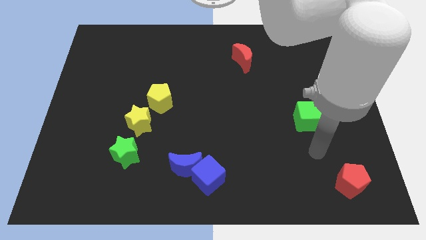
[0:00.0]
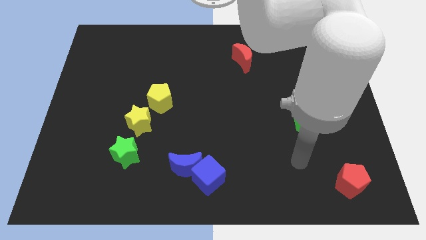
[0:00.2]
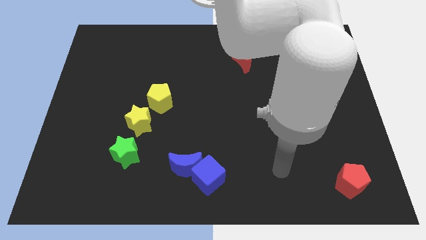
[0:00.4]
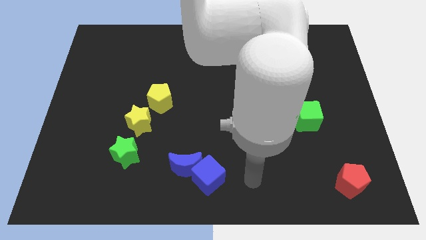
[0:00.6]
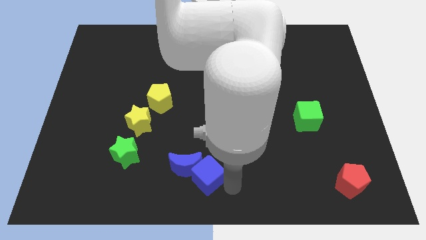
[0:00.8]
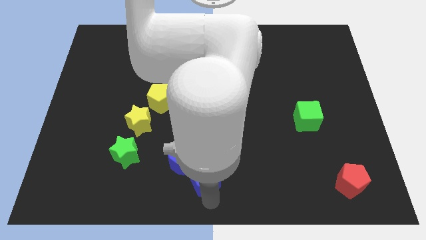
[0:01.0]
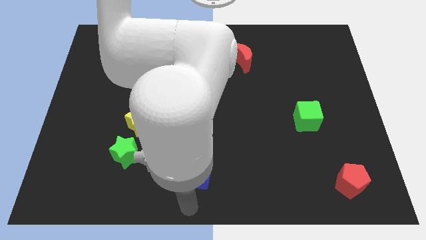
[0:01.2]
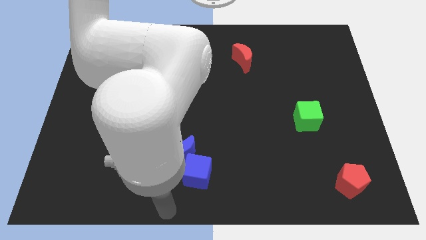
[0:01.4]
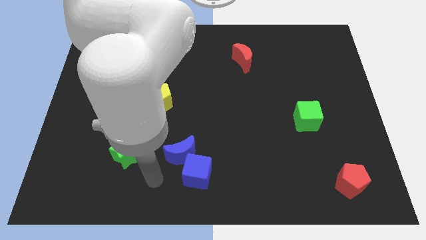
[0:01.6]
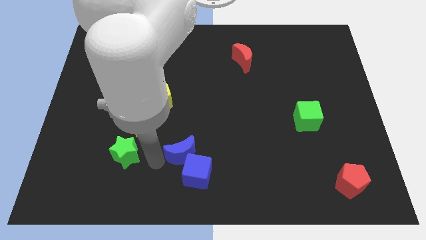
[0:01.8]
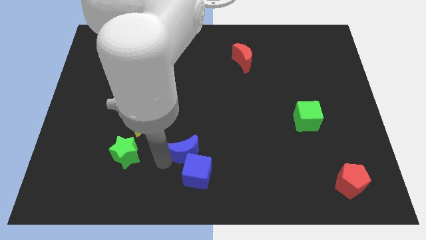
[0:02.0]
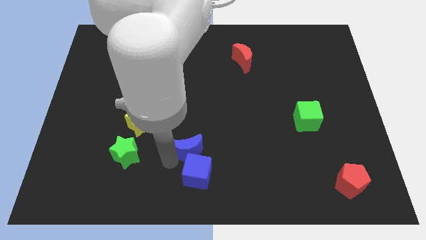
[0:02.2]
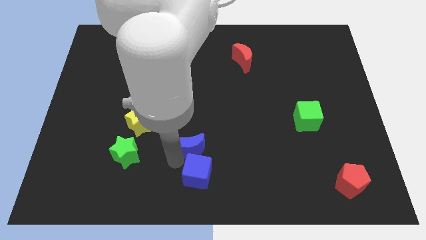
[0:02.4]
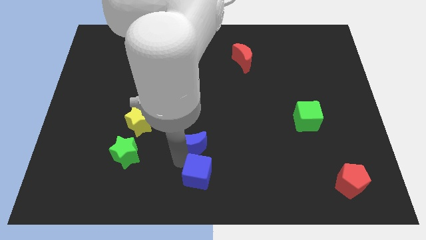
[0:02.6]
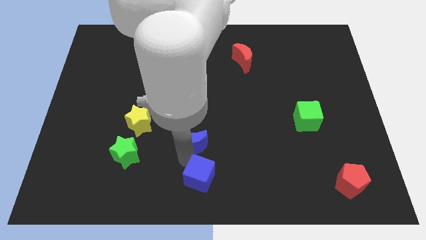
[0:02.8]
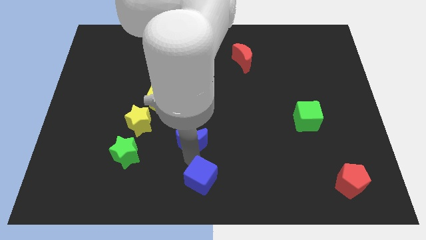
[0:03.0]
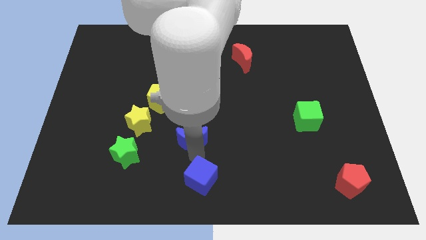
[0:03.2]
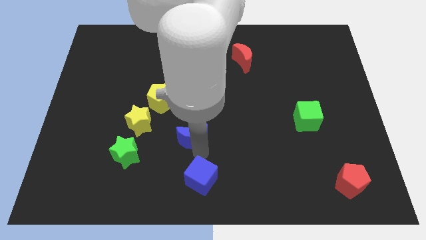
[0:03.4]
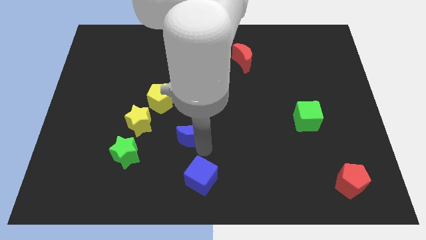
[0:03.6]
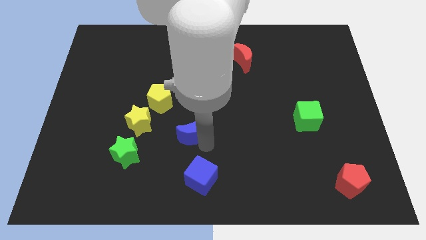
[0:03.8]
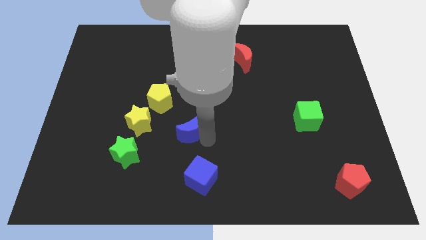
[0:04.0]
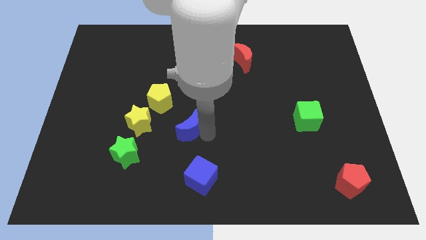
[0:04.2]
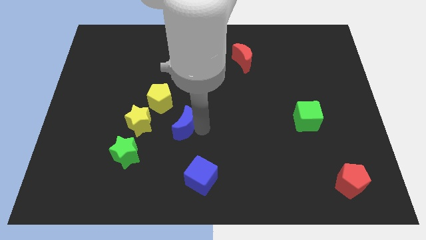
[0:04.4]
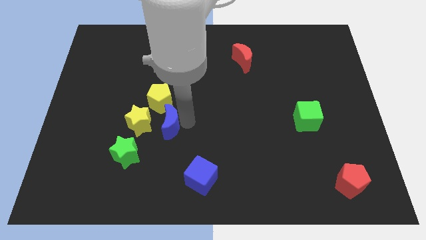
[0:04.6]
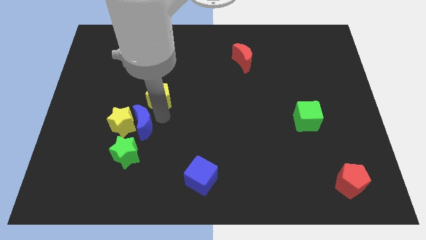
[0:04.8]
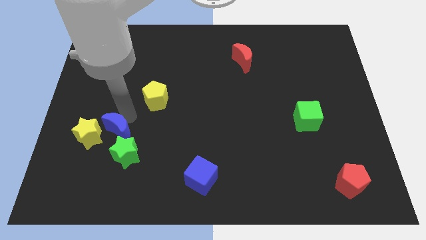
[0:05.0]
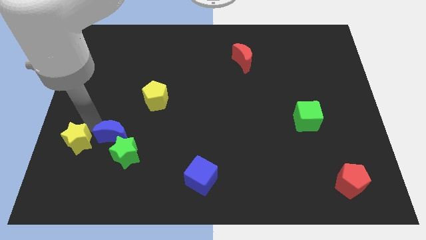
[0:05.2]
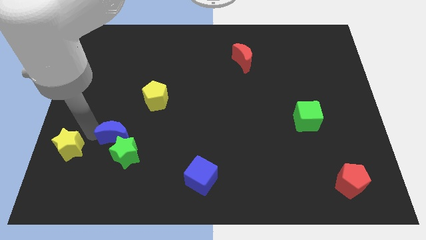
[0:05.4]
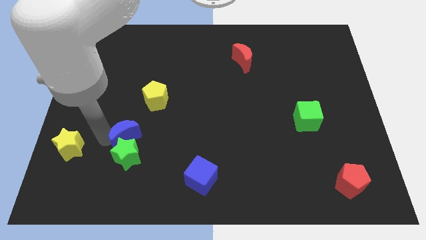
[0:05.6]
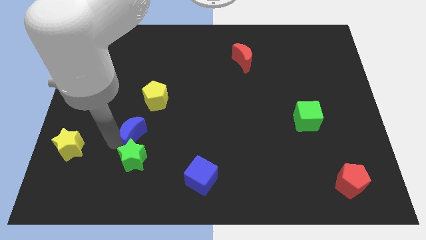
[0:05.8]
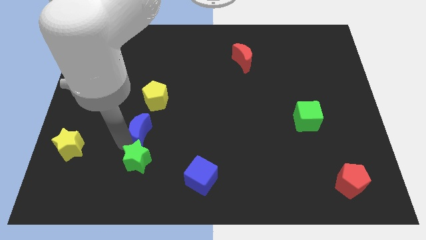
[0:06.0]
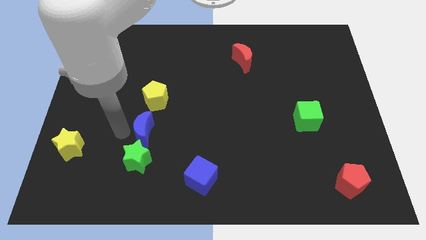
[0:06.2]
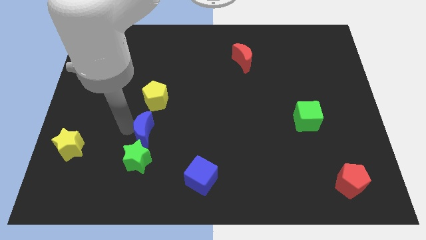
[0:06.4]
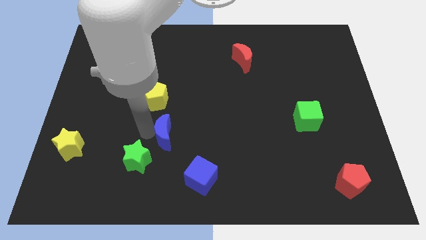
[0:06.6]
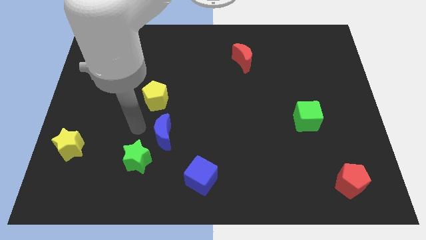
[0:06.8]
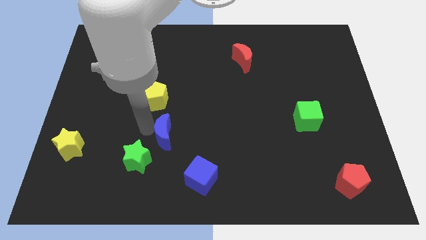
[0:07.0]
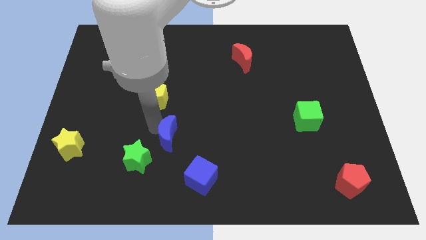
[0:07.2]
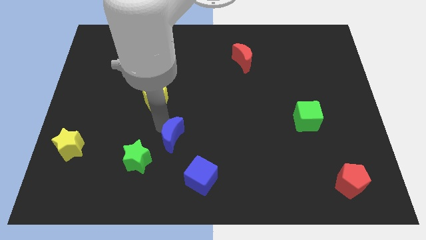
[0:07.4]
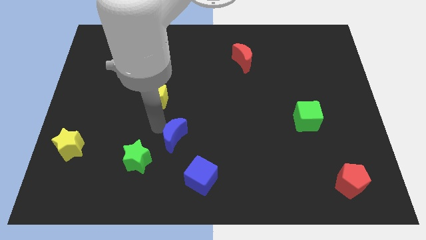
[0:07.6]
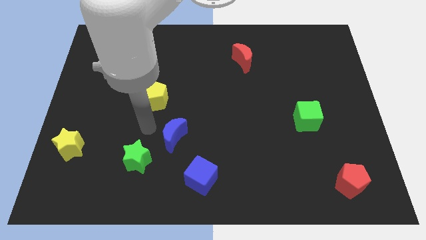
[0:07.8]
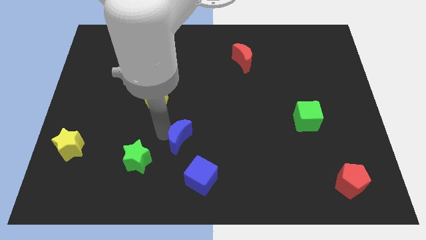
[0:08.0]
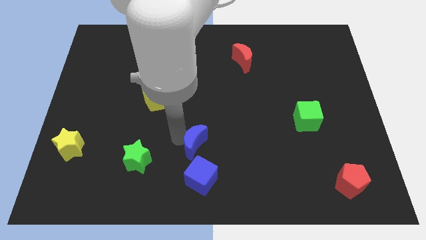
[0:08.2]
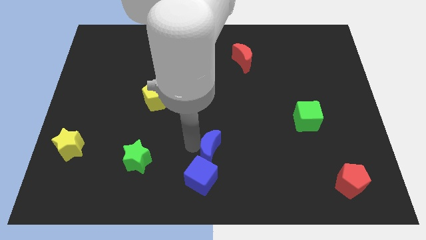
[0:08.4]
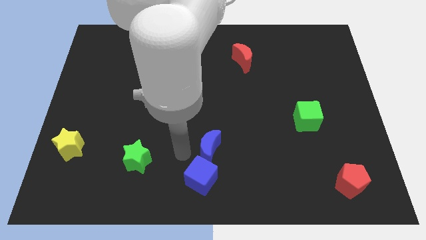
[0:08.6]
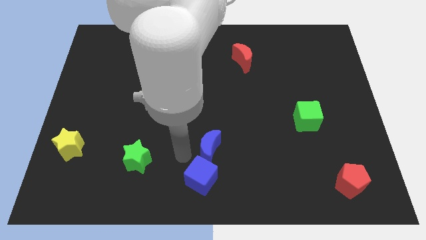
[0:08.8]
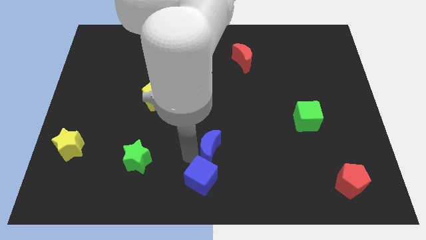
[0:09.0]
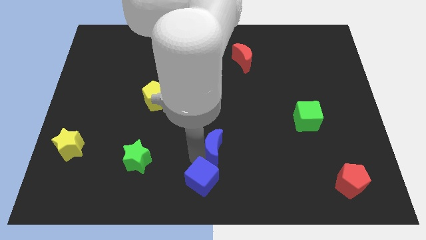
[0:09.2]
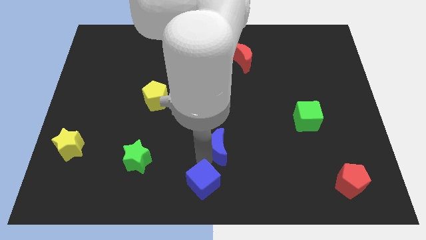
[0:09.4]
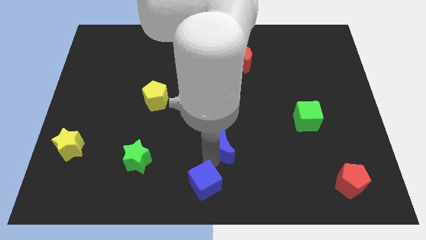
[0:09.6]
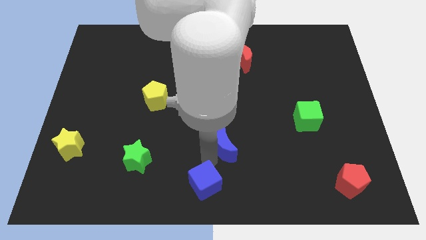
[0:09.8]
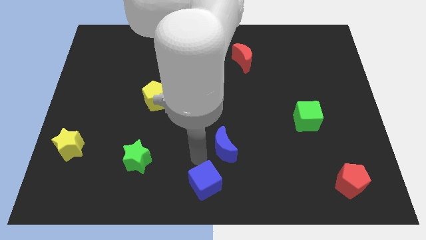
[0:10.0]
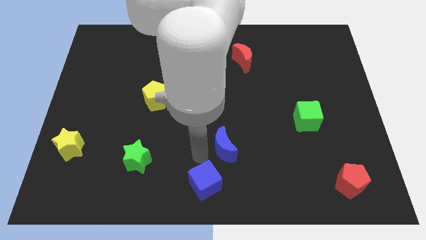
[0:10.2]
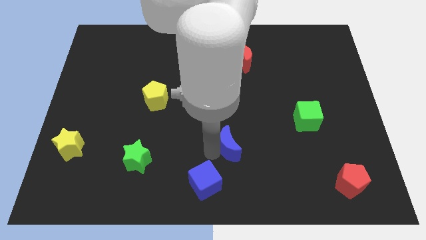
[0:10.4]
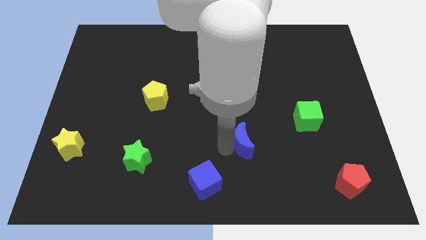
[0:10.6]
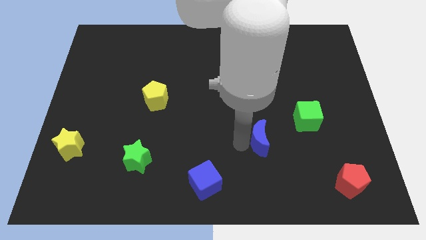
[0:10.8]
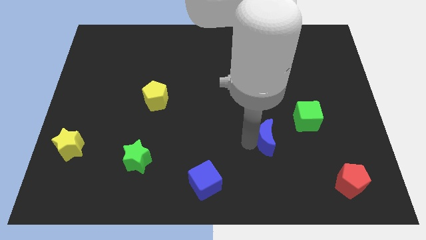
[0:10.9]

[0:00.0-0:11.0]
put the blue moon to the bottom left of the green cube

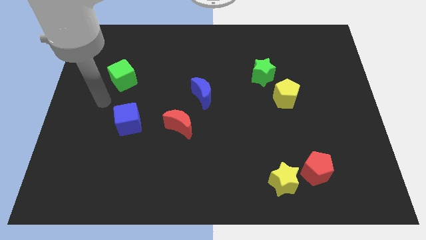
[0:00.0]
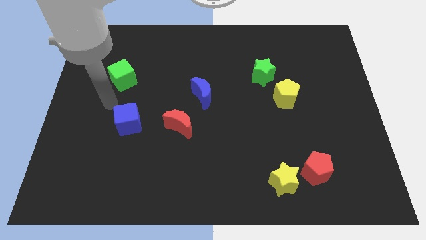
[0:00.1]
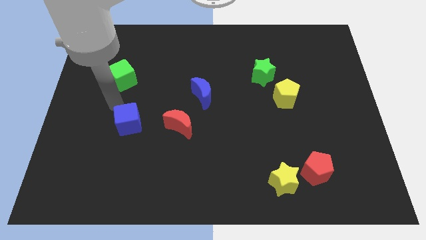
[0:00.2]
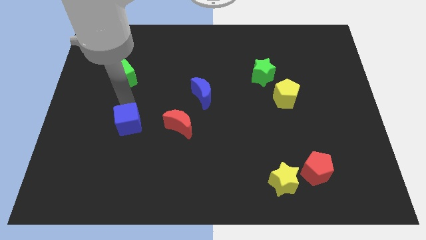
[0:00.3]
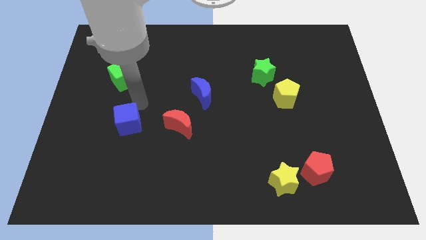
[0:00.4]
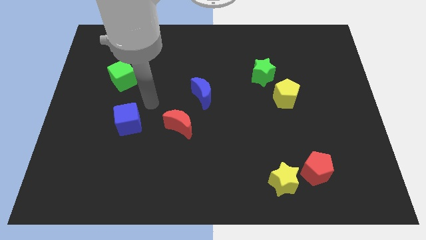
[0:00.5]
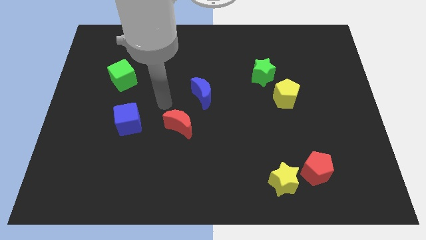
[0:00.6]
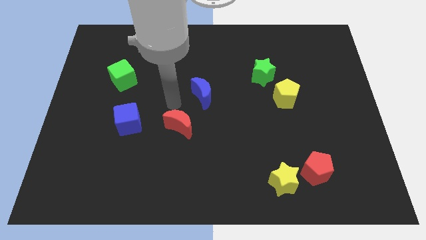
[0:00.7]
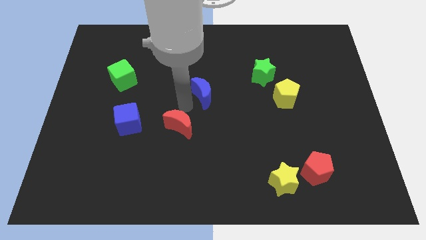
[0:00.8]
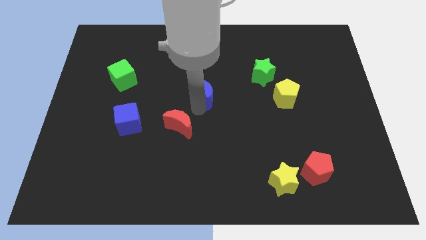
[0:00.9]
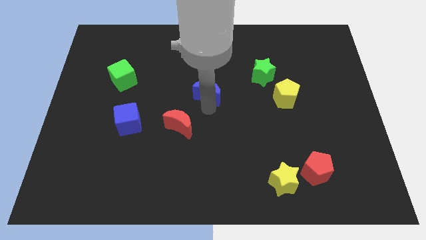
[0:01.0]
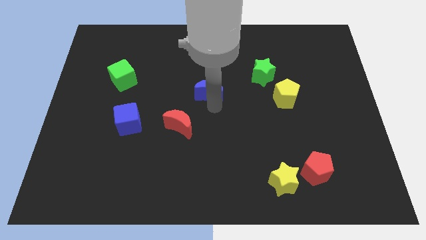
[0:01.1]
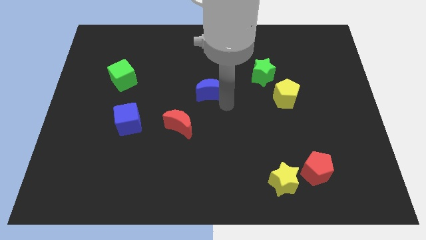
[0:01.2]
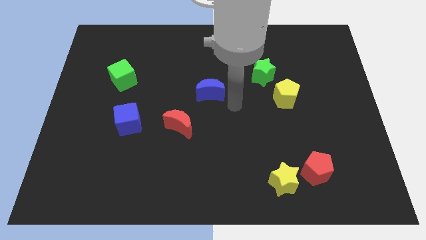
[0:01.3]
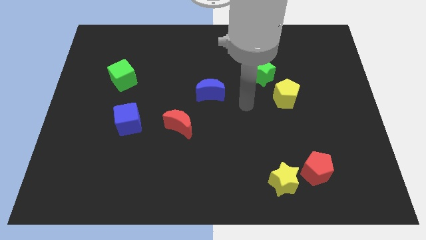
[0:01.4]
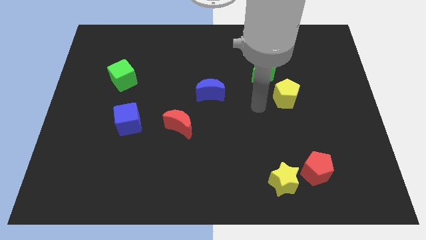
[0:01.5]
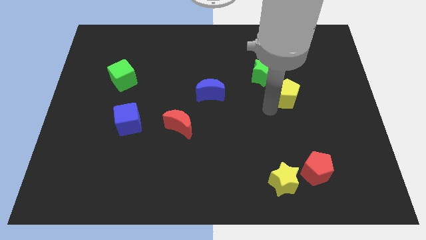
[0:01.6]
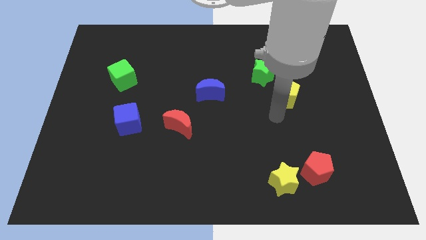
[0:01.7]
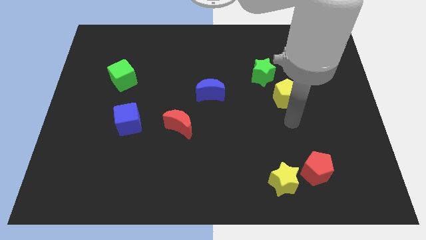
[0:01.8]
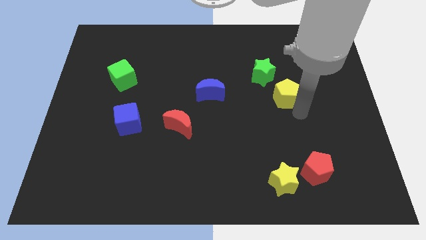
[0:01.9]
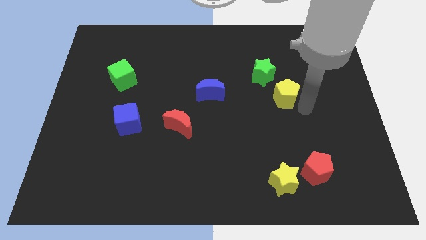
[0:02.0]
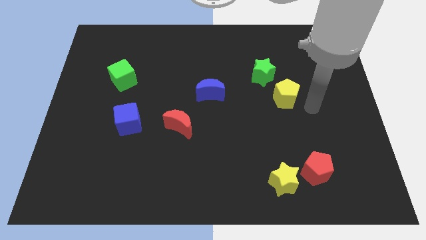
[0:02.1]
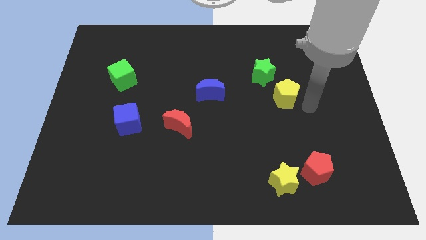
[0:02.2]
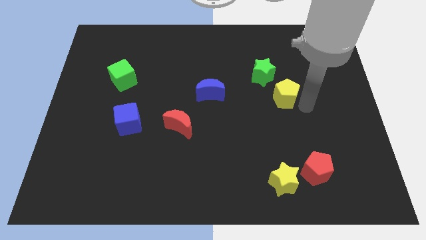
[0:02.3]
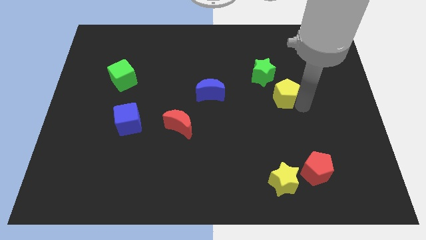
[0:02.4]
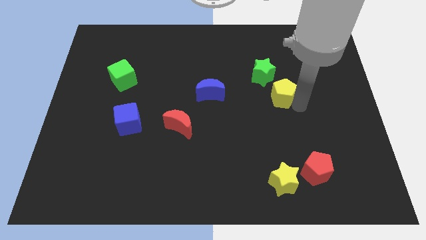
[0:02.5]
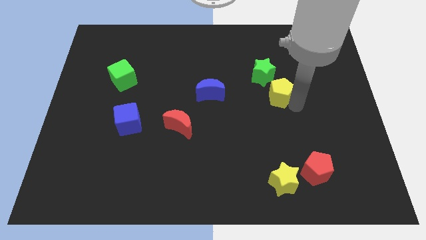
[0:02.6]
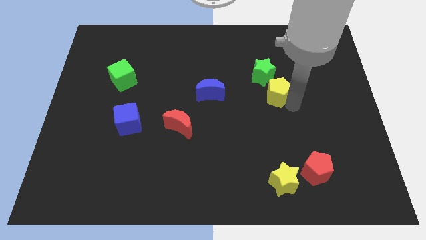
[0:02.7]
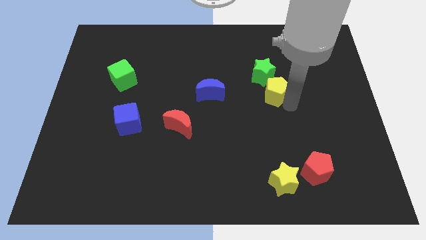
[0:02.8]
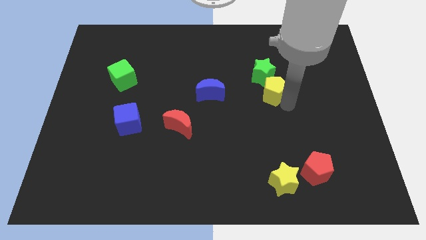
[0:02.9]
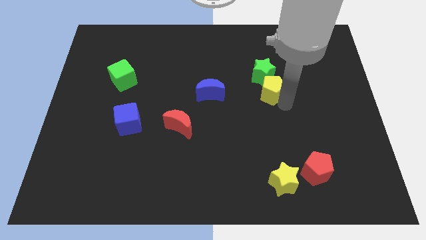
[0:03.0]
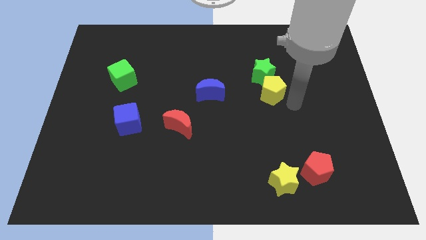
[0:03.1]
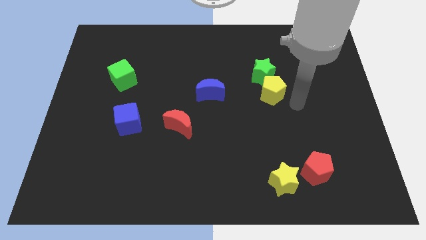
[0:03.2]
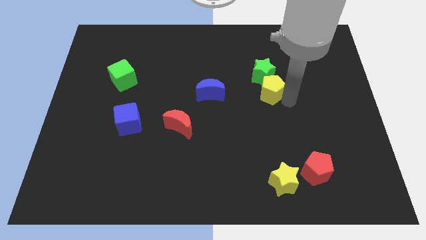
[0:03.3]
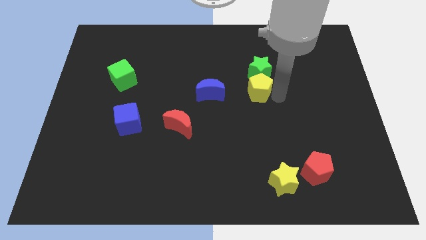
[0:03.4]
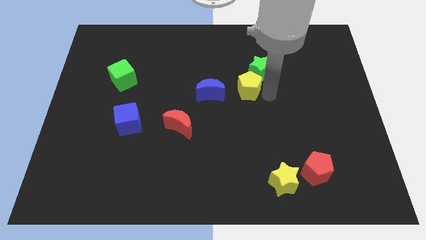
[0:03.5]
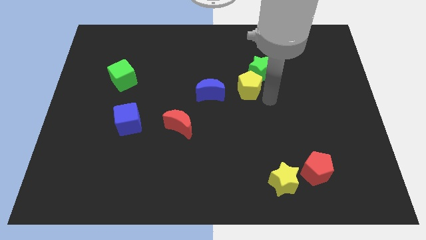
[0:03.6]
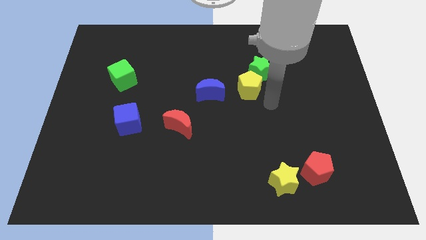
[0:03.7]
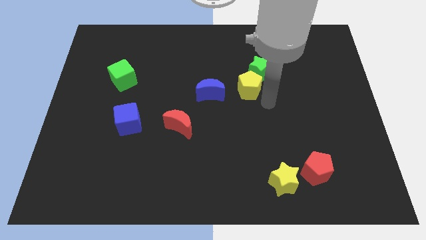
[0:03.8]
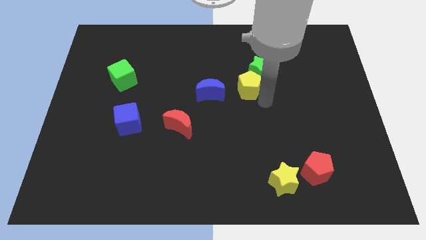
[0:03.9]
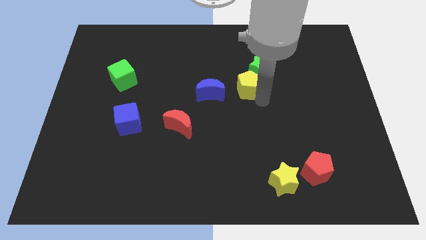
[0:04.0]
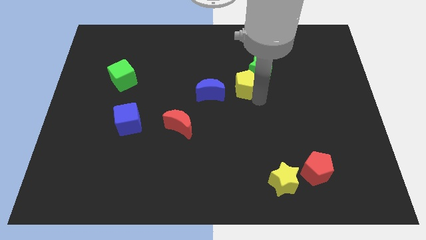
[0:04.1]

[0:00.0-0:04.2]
put the yellow pentagon to the top right side of the blue moon
